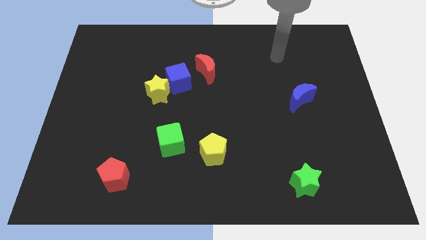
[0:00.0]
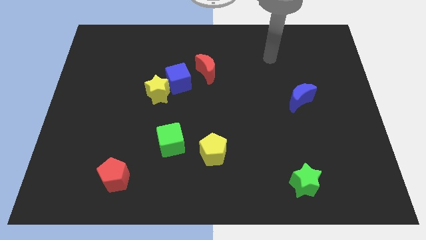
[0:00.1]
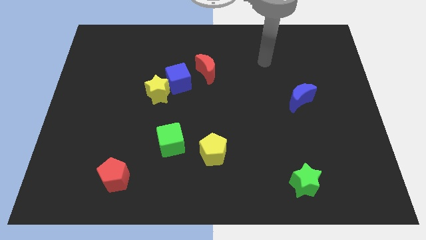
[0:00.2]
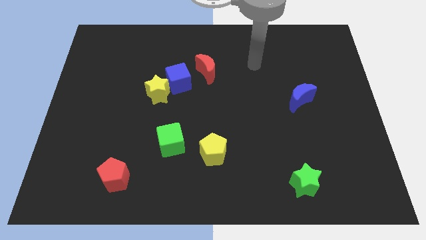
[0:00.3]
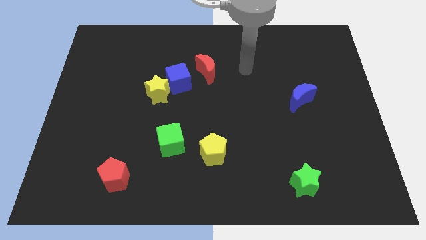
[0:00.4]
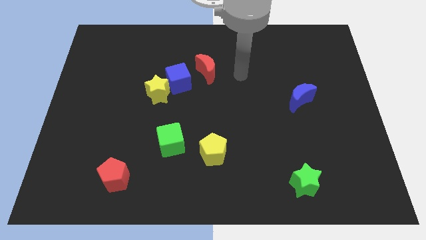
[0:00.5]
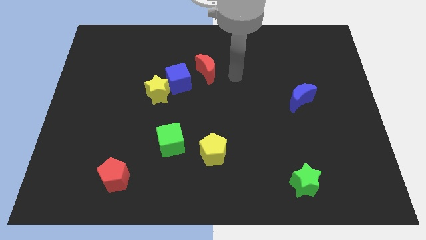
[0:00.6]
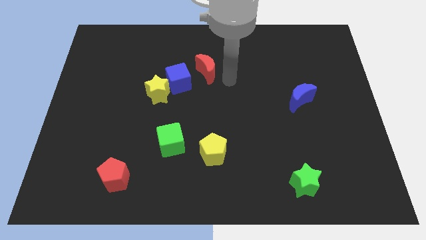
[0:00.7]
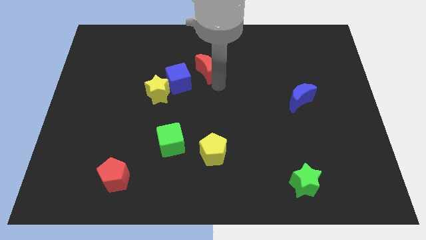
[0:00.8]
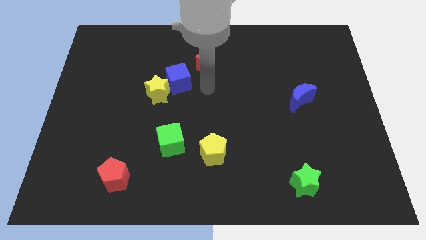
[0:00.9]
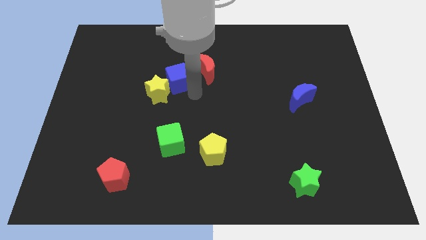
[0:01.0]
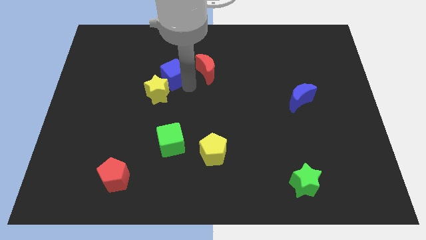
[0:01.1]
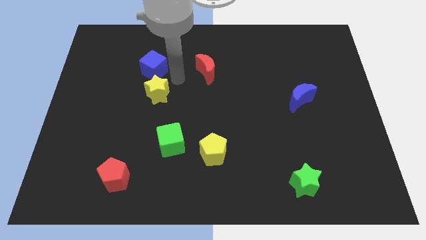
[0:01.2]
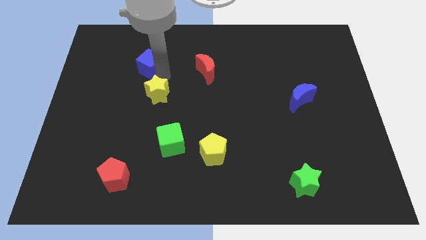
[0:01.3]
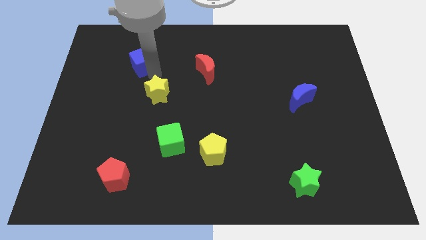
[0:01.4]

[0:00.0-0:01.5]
move the yellow star away from the blue cube

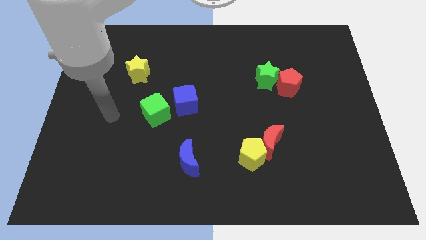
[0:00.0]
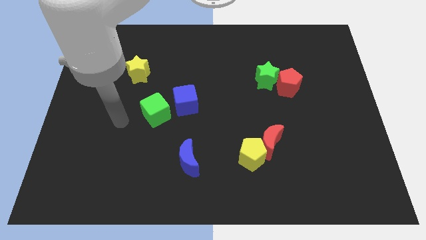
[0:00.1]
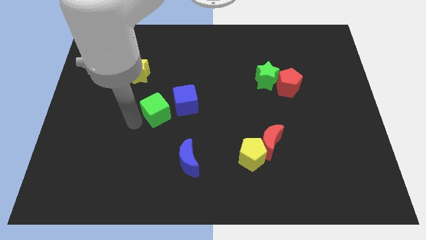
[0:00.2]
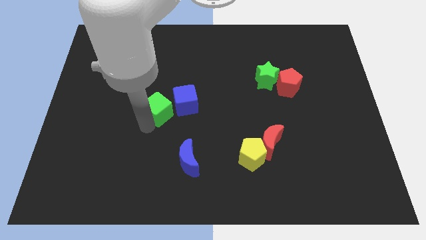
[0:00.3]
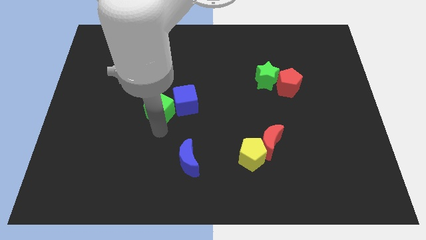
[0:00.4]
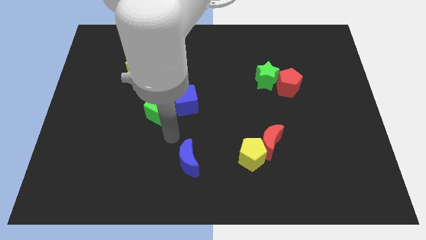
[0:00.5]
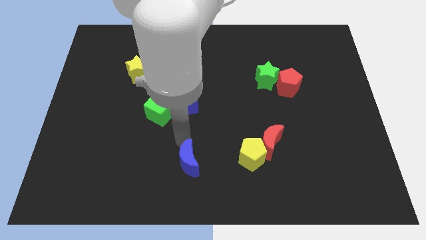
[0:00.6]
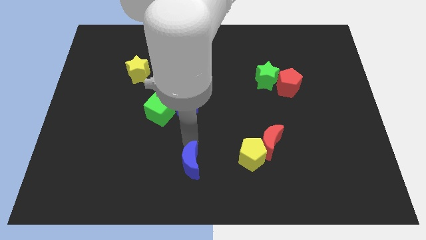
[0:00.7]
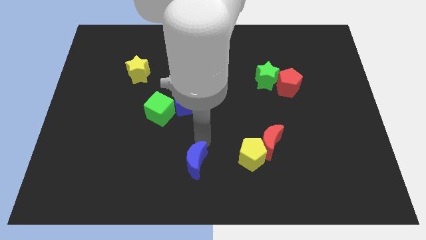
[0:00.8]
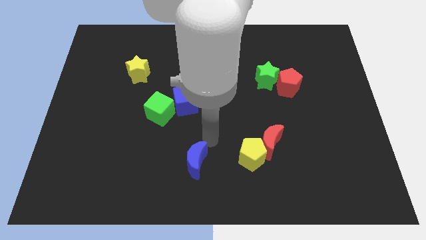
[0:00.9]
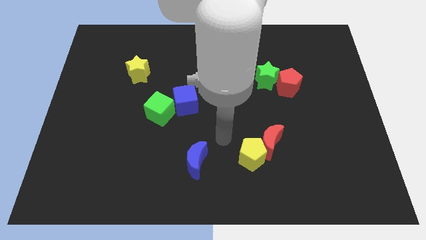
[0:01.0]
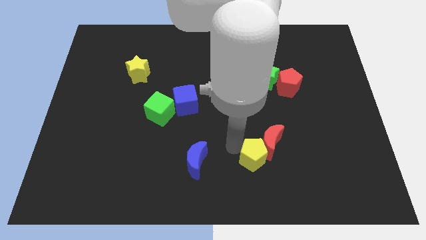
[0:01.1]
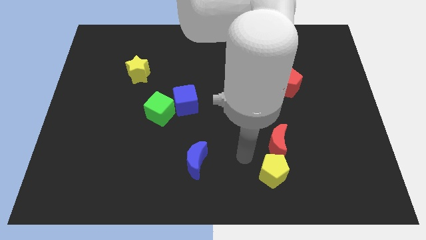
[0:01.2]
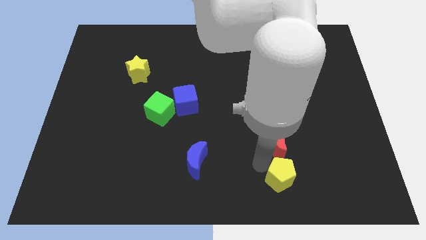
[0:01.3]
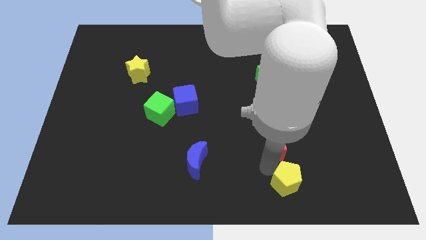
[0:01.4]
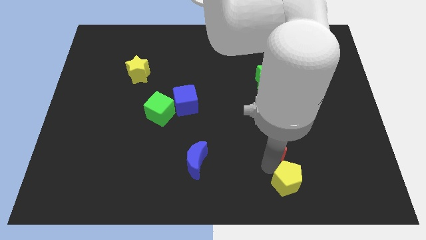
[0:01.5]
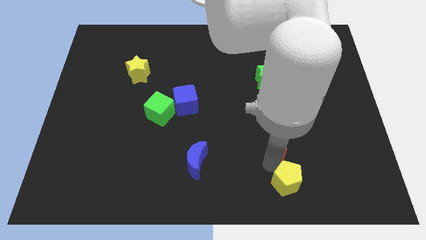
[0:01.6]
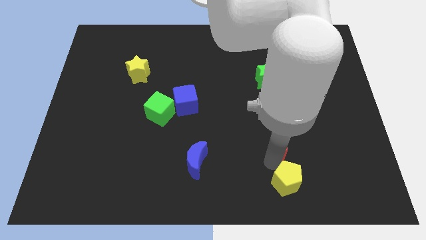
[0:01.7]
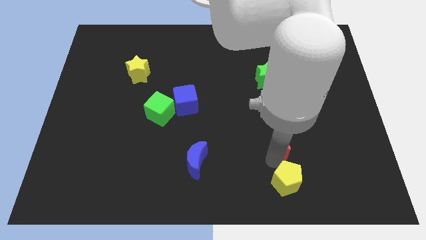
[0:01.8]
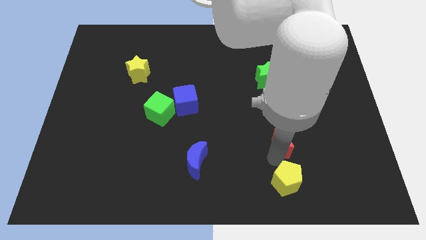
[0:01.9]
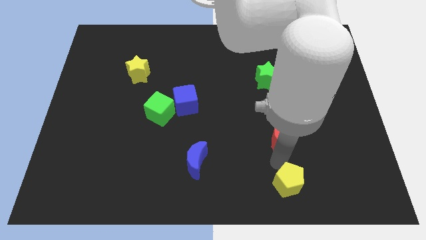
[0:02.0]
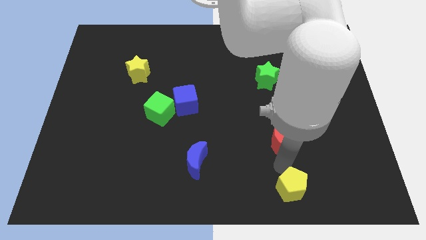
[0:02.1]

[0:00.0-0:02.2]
separate the red moon from the yellow pentagon

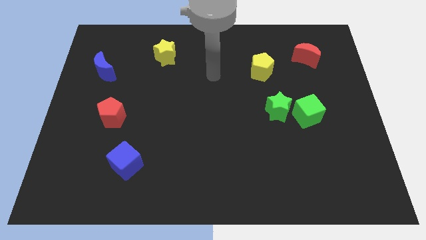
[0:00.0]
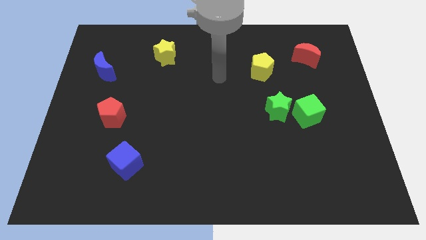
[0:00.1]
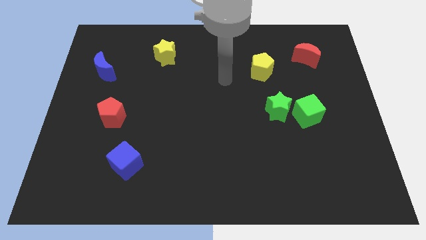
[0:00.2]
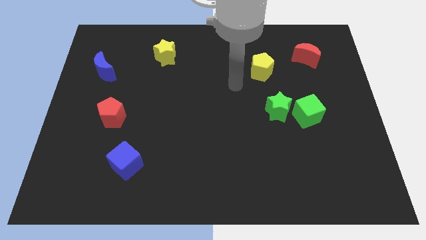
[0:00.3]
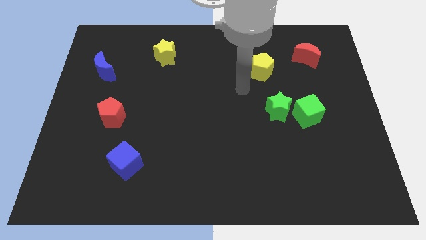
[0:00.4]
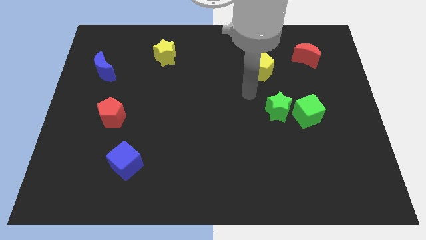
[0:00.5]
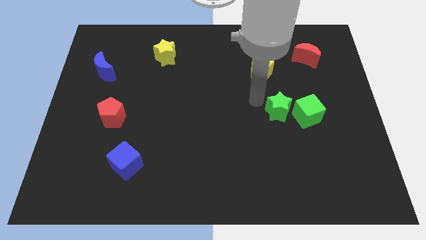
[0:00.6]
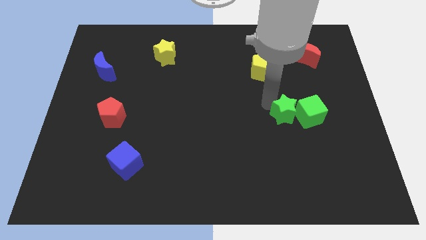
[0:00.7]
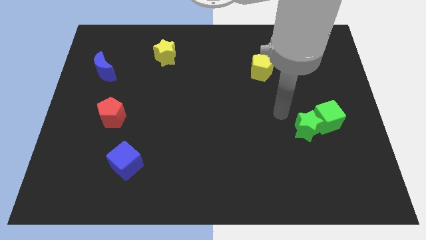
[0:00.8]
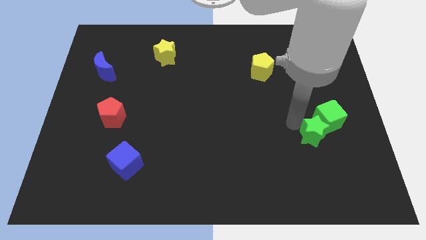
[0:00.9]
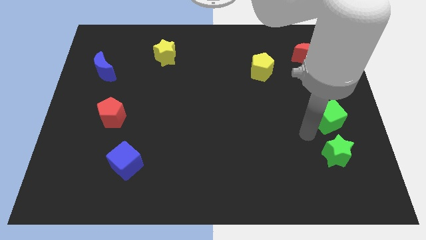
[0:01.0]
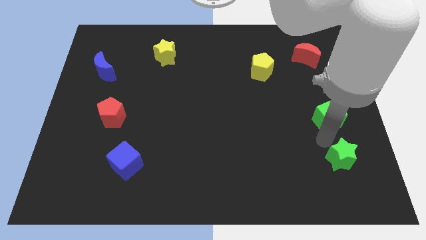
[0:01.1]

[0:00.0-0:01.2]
move the green cube away from the green star

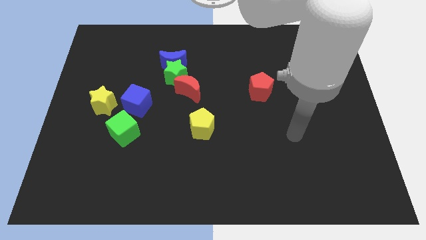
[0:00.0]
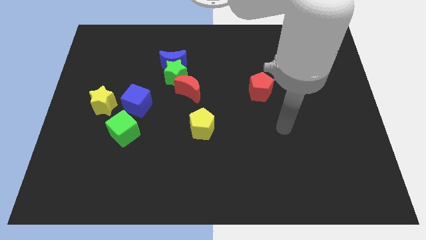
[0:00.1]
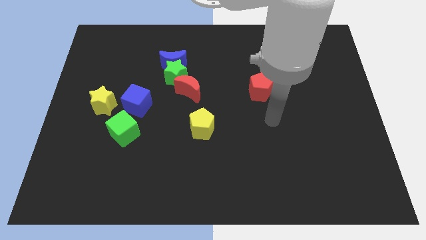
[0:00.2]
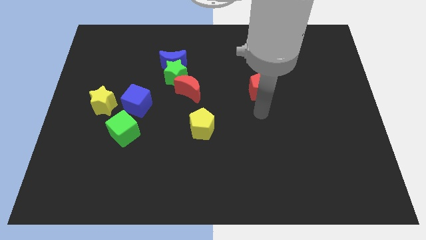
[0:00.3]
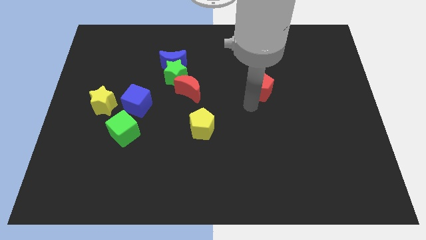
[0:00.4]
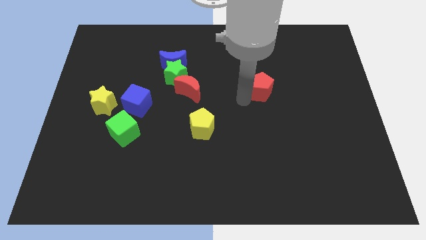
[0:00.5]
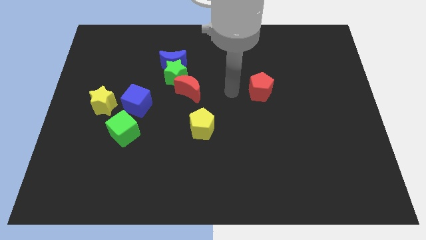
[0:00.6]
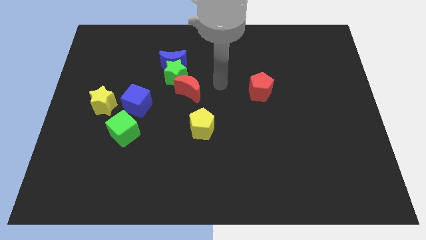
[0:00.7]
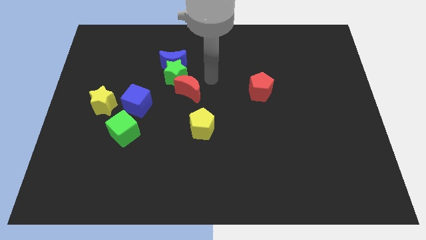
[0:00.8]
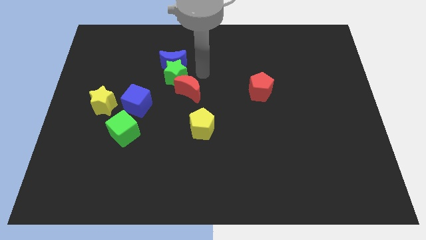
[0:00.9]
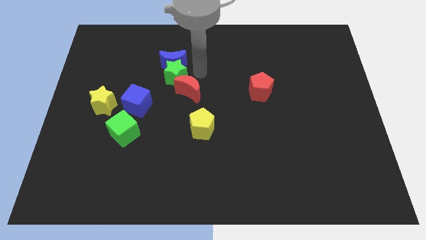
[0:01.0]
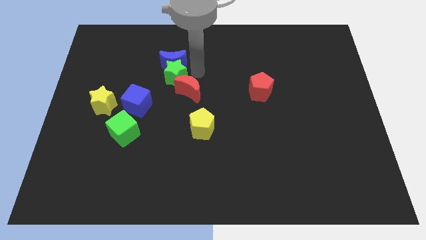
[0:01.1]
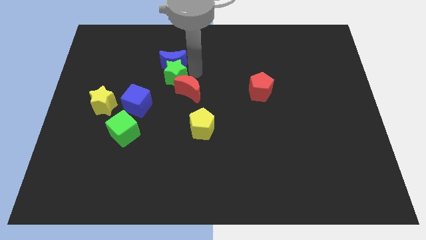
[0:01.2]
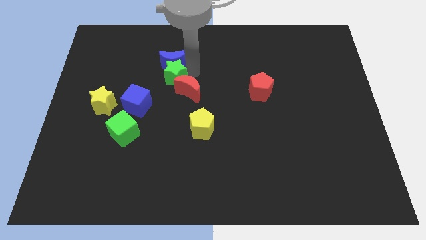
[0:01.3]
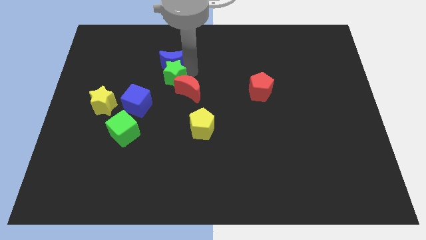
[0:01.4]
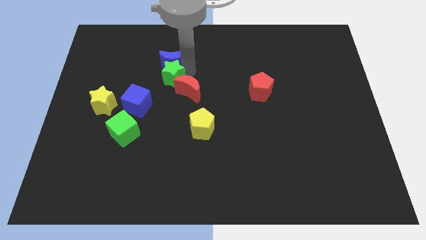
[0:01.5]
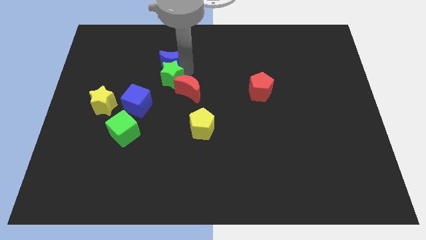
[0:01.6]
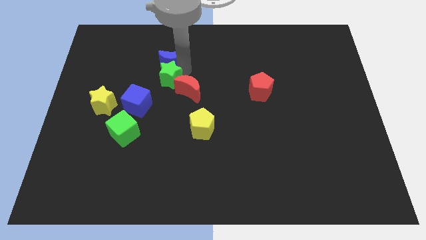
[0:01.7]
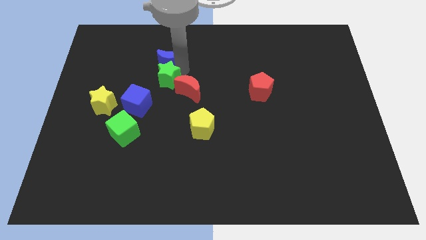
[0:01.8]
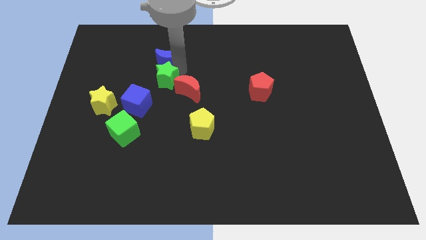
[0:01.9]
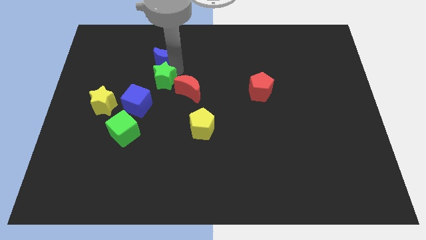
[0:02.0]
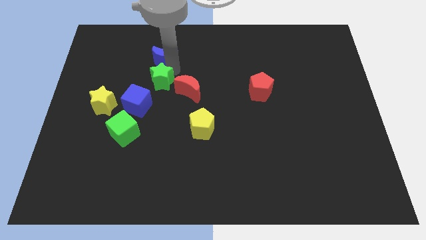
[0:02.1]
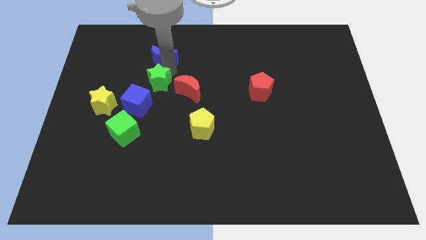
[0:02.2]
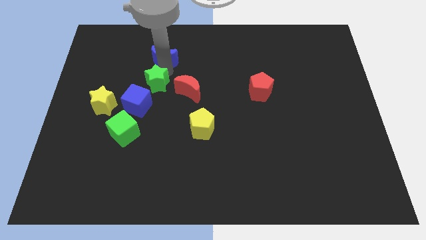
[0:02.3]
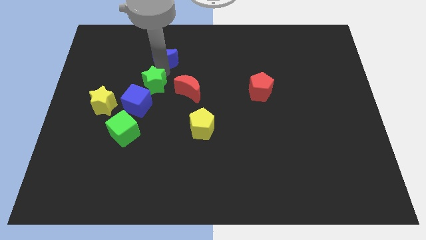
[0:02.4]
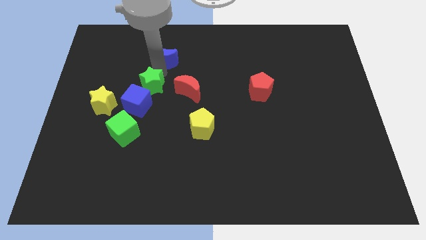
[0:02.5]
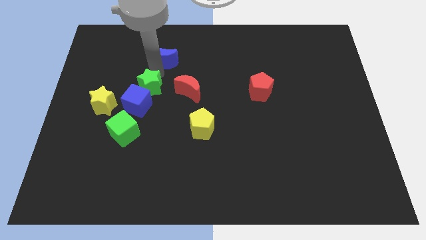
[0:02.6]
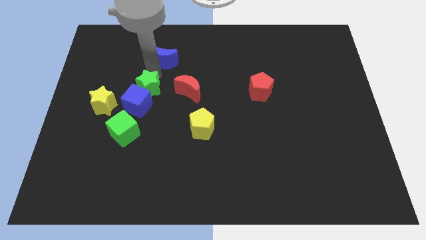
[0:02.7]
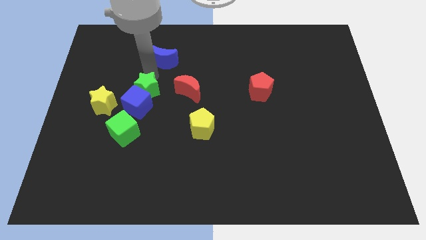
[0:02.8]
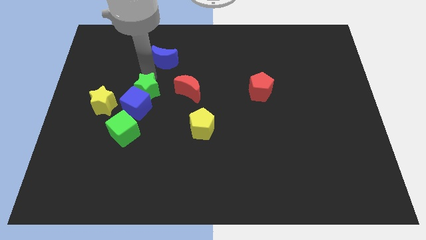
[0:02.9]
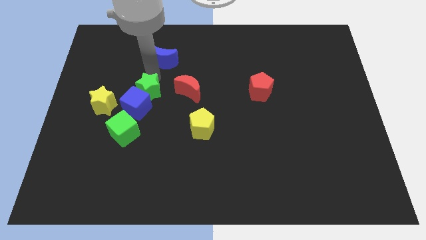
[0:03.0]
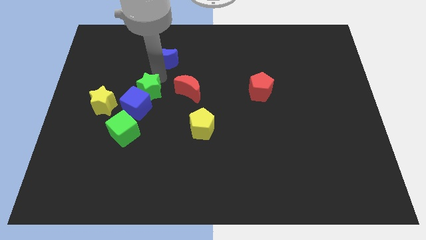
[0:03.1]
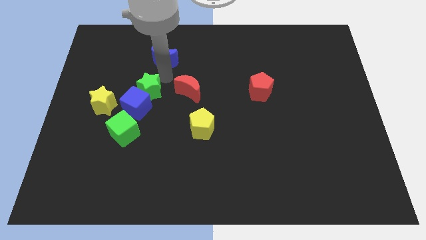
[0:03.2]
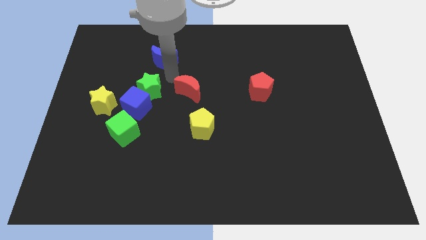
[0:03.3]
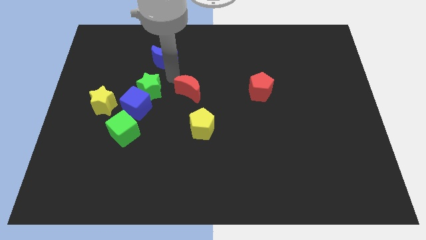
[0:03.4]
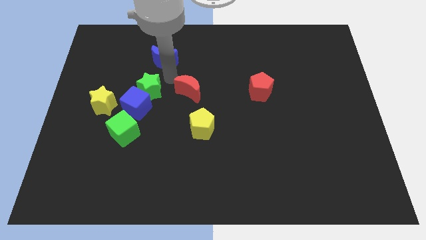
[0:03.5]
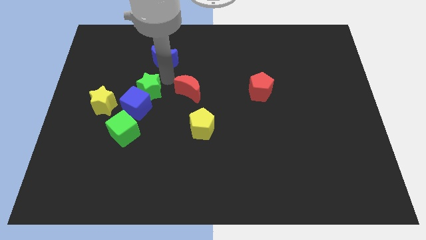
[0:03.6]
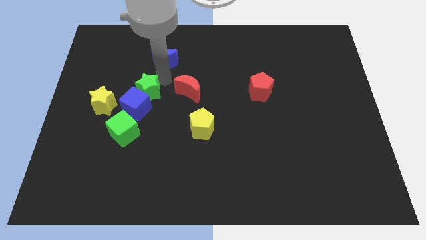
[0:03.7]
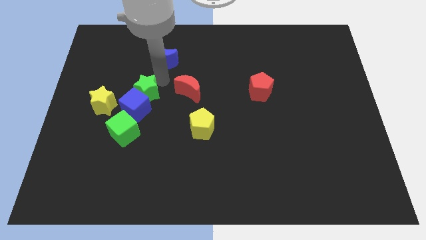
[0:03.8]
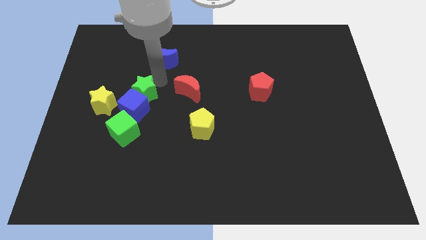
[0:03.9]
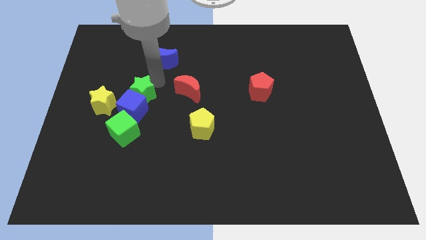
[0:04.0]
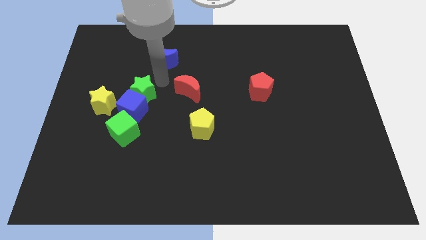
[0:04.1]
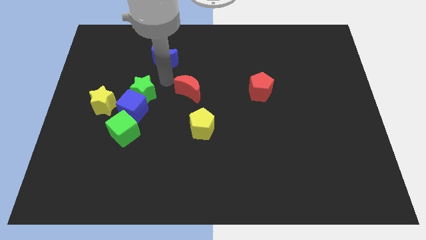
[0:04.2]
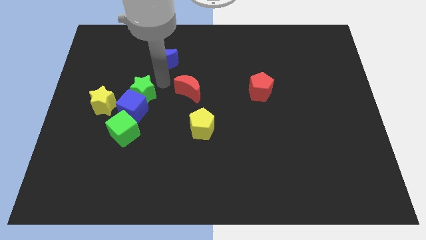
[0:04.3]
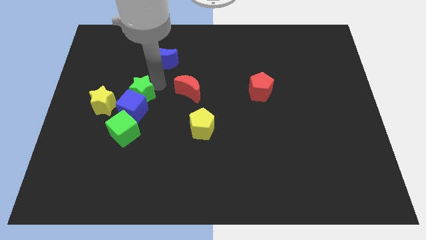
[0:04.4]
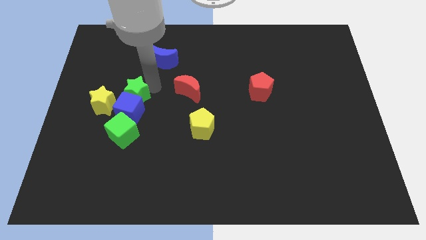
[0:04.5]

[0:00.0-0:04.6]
separate the green star from the blue moon and red moon
